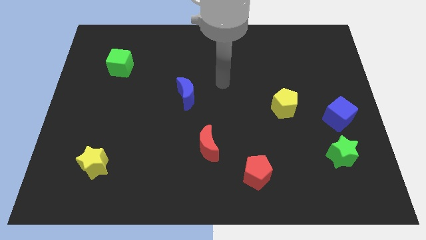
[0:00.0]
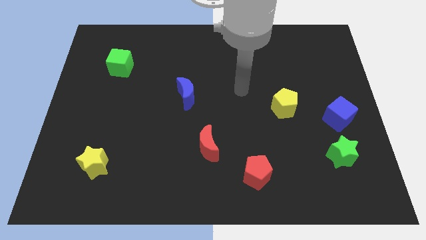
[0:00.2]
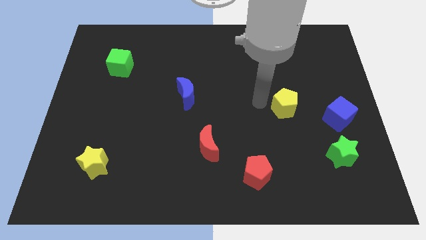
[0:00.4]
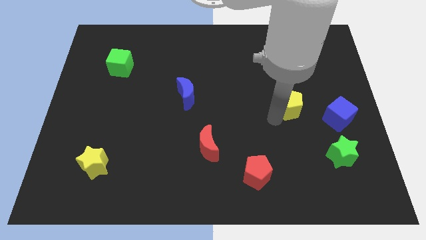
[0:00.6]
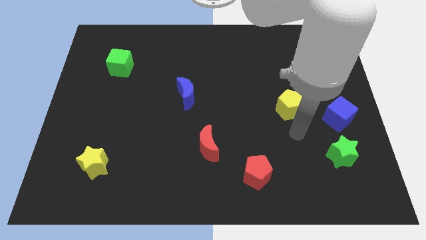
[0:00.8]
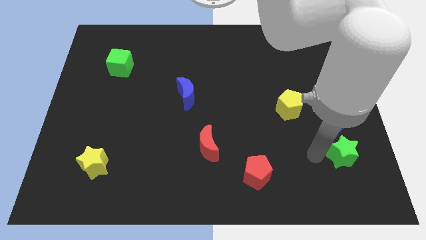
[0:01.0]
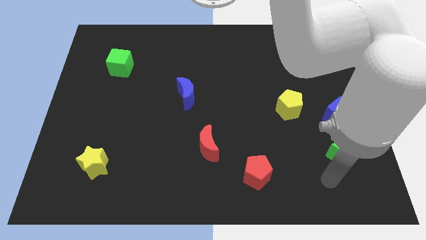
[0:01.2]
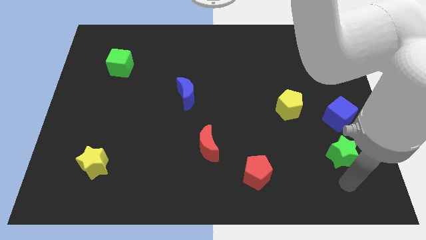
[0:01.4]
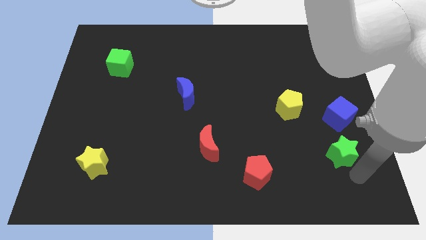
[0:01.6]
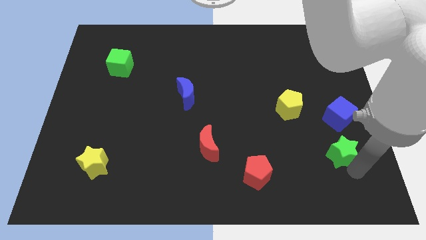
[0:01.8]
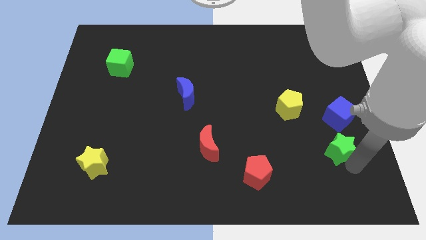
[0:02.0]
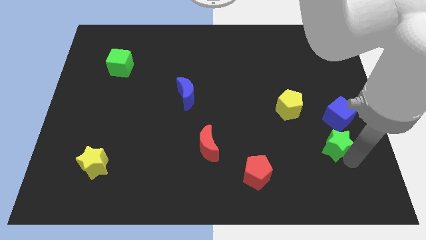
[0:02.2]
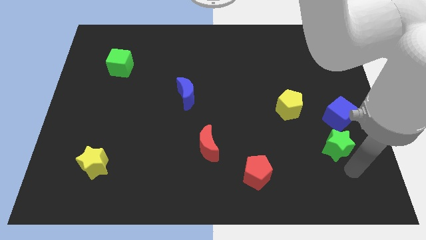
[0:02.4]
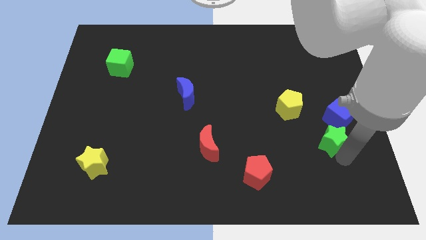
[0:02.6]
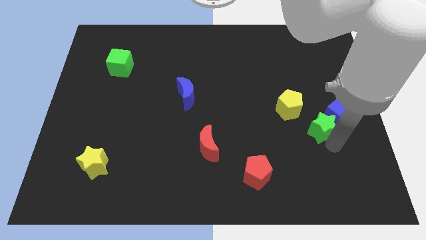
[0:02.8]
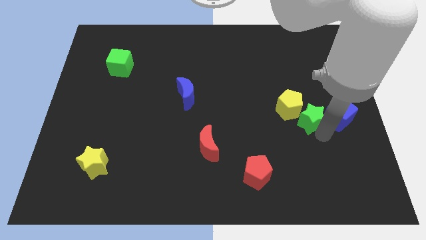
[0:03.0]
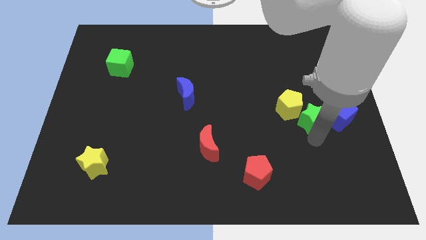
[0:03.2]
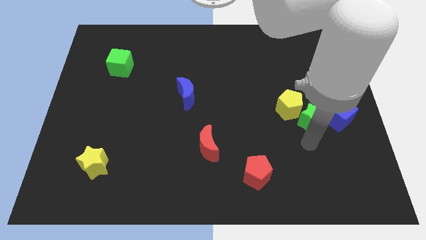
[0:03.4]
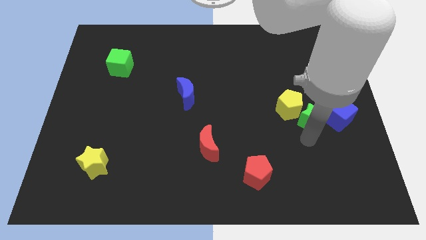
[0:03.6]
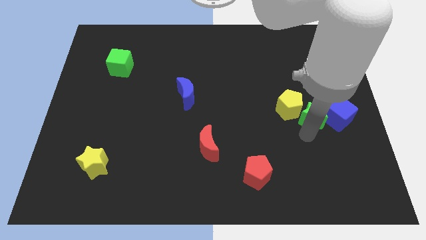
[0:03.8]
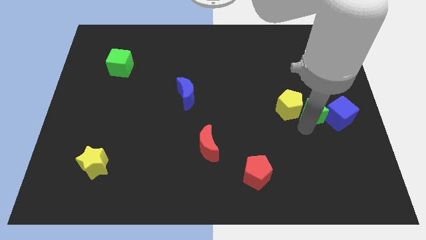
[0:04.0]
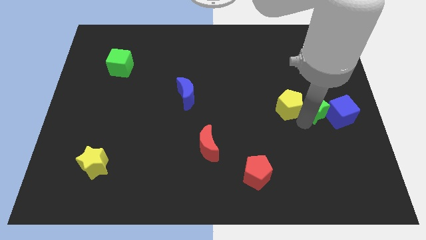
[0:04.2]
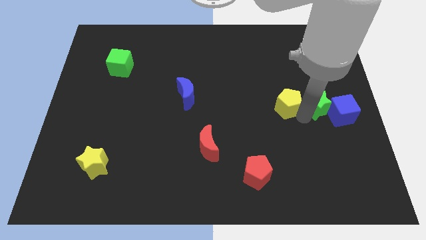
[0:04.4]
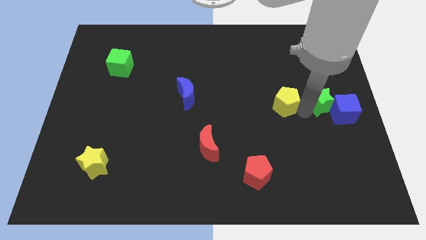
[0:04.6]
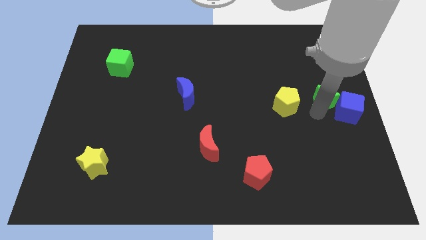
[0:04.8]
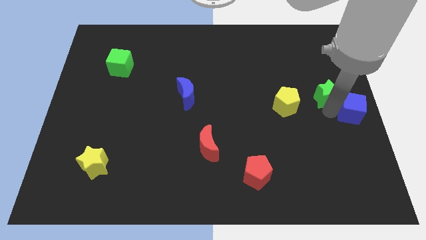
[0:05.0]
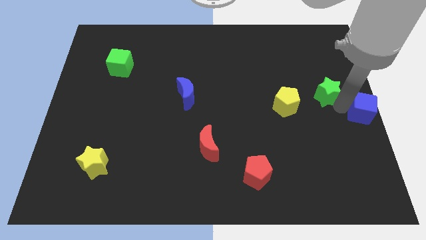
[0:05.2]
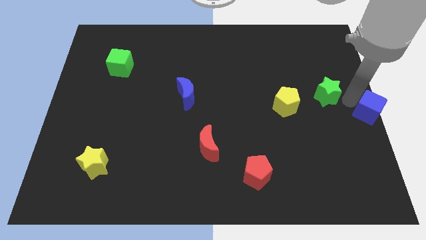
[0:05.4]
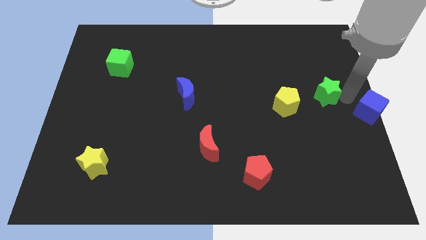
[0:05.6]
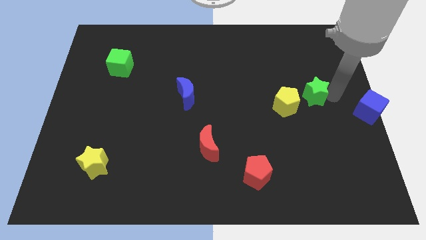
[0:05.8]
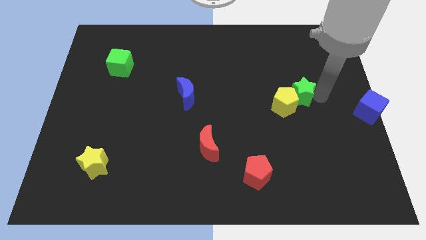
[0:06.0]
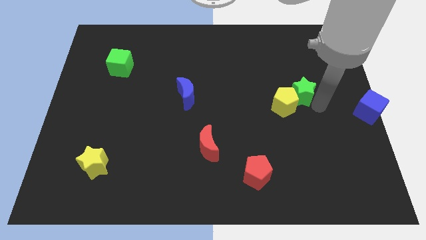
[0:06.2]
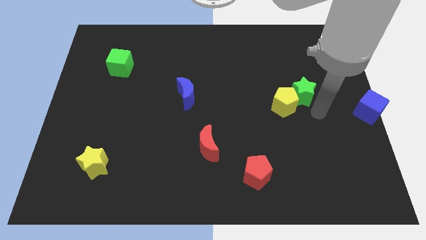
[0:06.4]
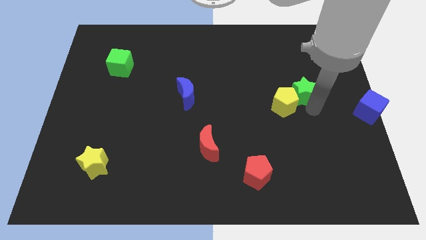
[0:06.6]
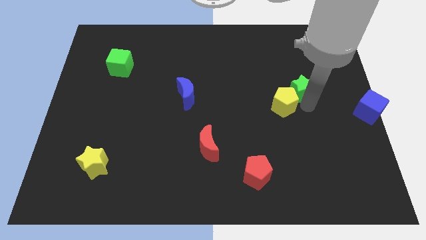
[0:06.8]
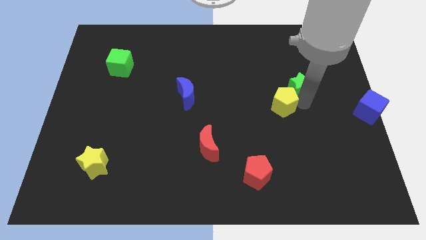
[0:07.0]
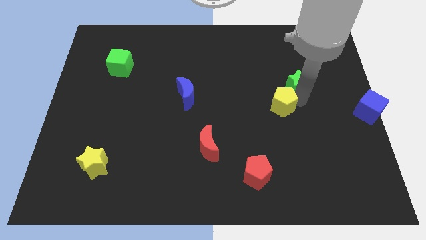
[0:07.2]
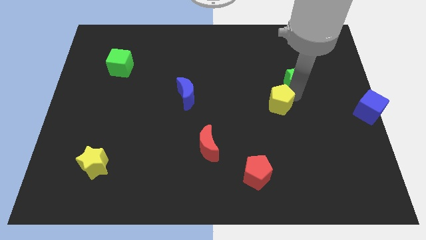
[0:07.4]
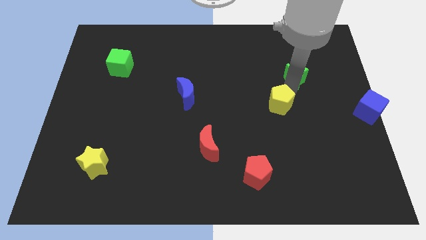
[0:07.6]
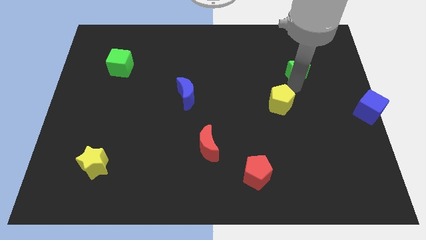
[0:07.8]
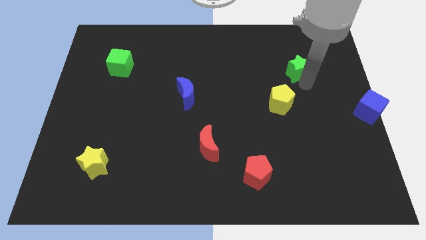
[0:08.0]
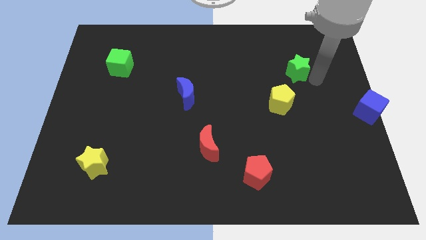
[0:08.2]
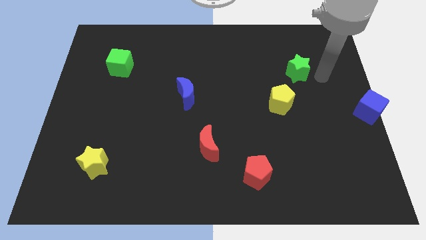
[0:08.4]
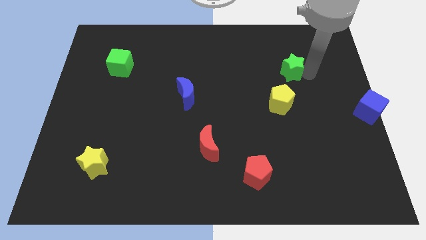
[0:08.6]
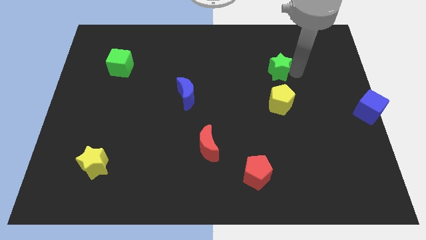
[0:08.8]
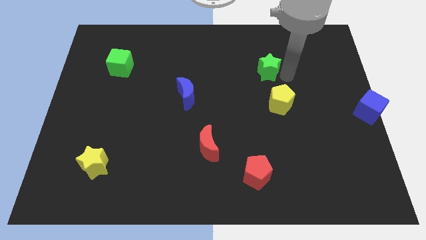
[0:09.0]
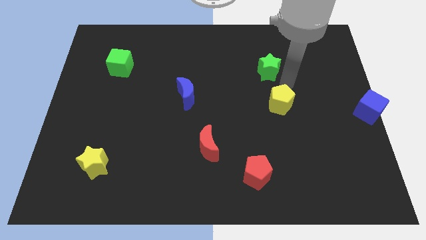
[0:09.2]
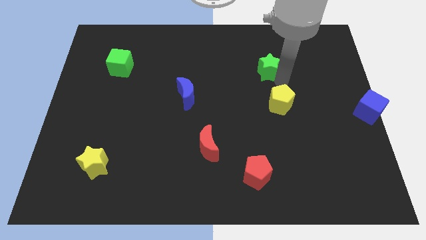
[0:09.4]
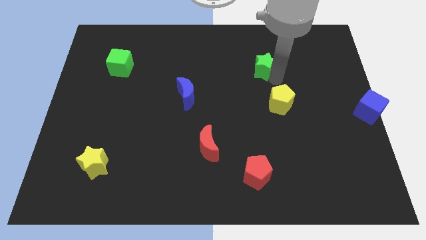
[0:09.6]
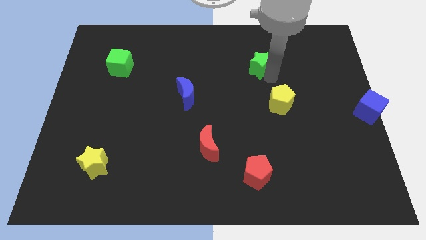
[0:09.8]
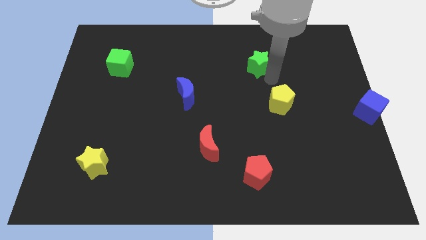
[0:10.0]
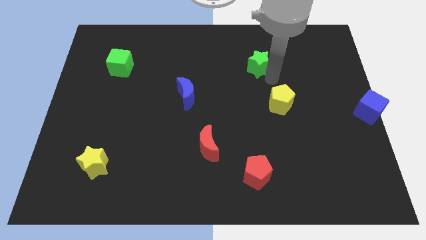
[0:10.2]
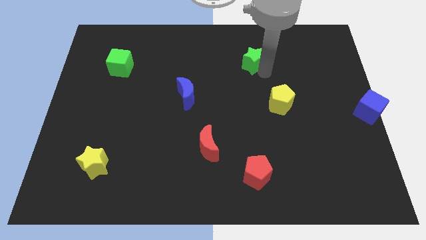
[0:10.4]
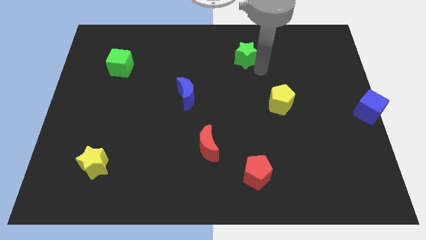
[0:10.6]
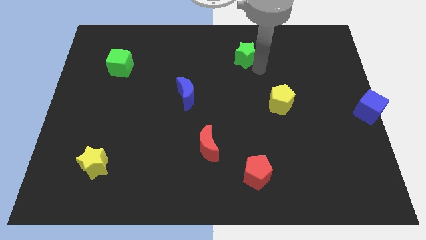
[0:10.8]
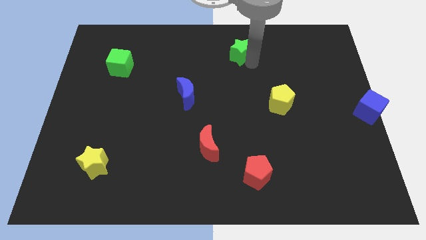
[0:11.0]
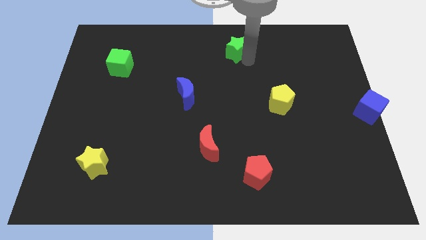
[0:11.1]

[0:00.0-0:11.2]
slide the green star to the top side

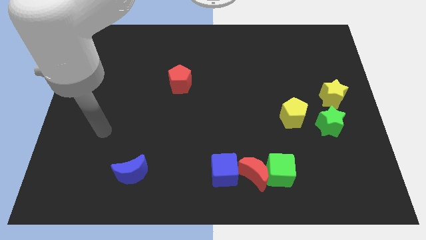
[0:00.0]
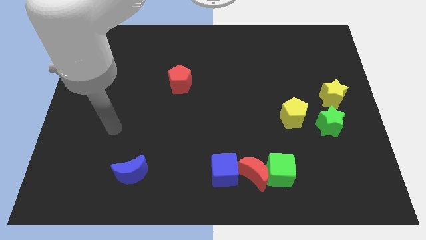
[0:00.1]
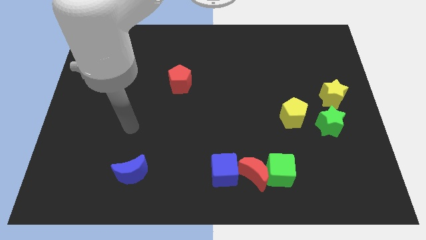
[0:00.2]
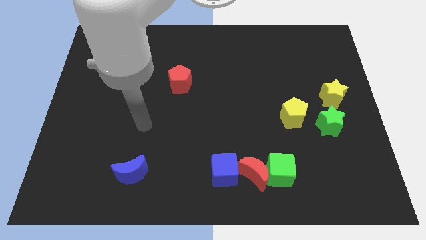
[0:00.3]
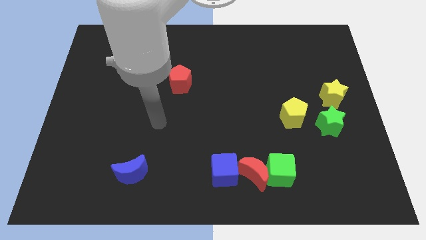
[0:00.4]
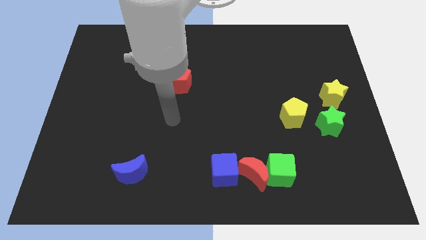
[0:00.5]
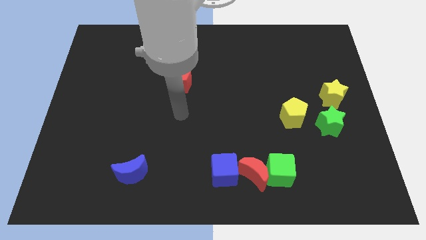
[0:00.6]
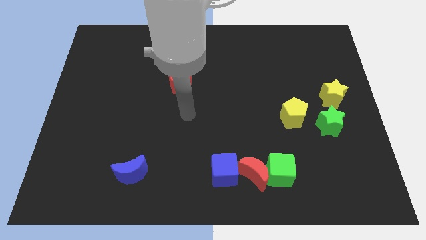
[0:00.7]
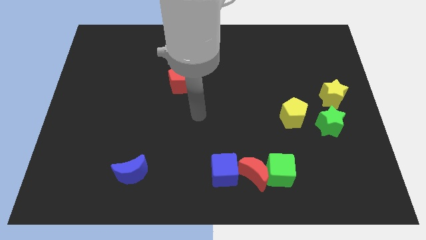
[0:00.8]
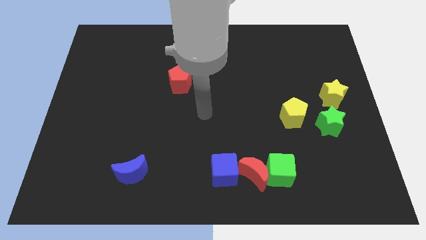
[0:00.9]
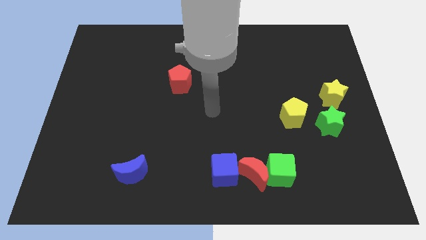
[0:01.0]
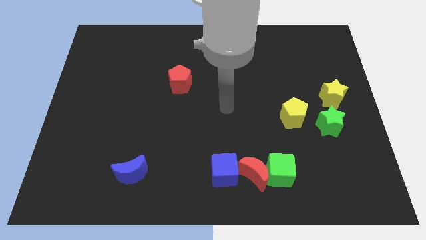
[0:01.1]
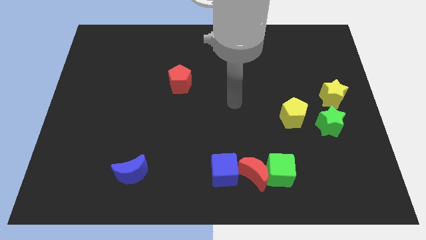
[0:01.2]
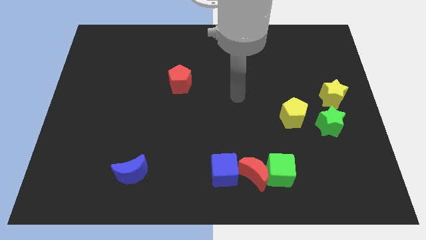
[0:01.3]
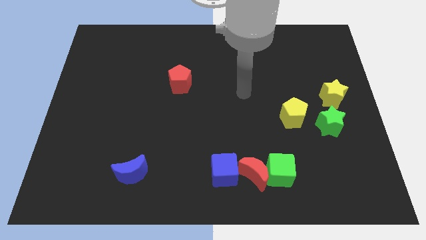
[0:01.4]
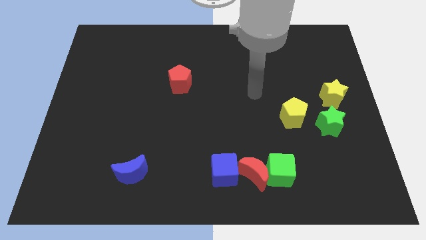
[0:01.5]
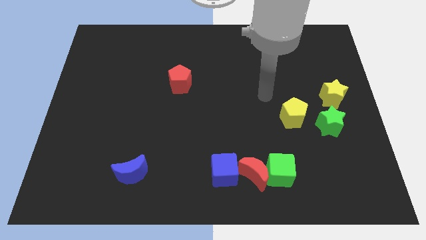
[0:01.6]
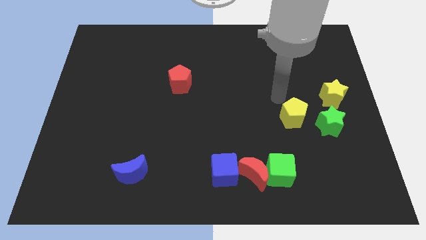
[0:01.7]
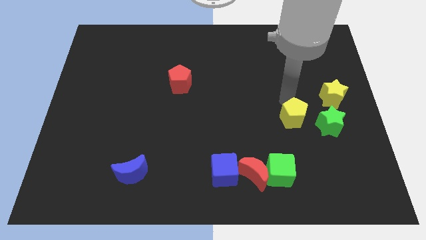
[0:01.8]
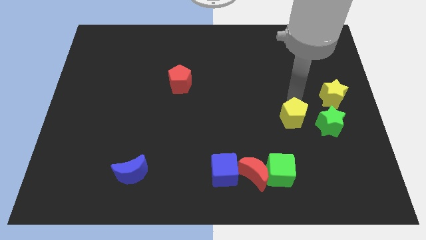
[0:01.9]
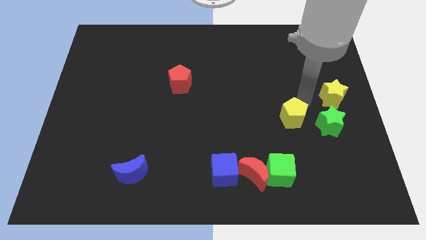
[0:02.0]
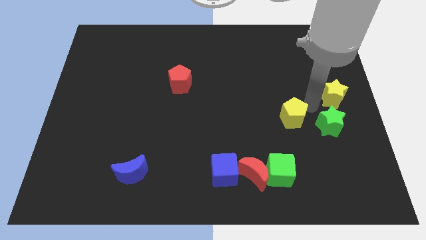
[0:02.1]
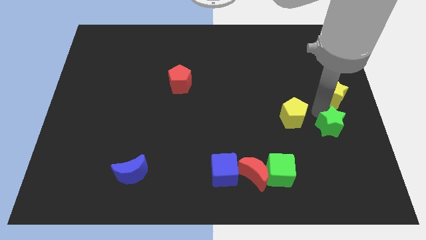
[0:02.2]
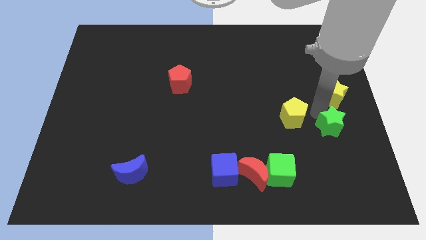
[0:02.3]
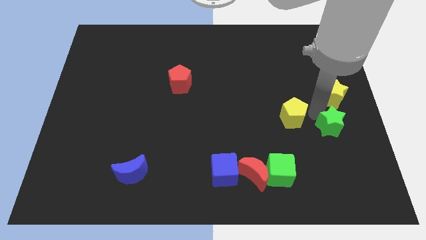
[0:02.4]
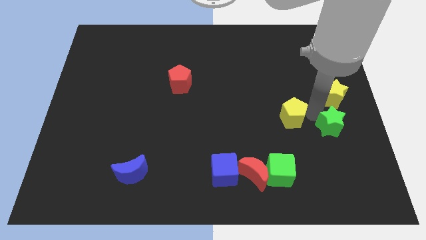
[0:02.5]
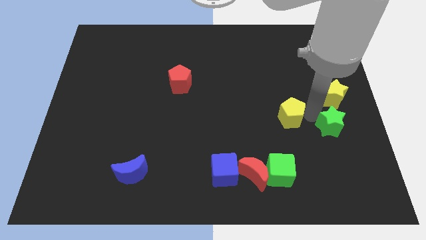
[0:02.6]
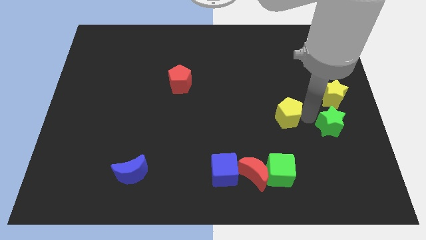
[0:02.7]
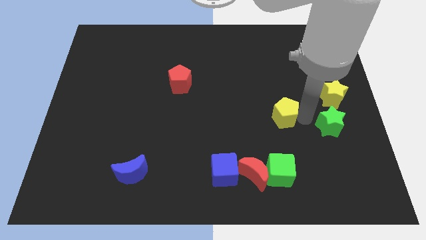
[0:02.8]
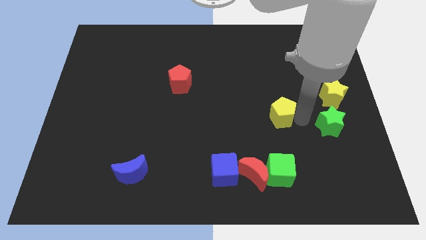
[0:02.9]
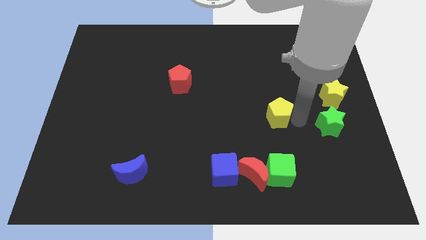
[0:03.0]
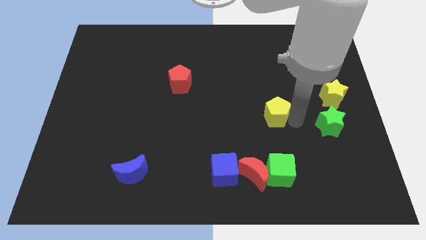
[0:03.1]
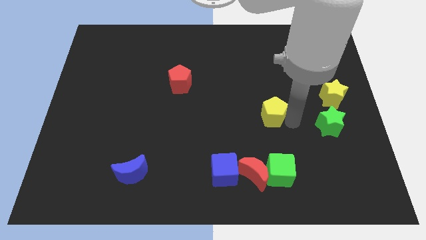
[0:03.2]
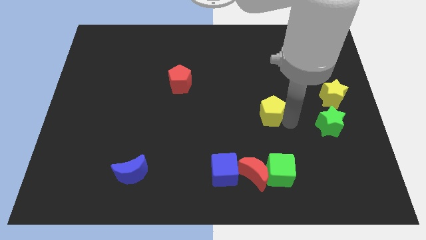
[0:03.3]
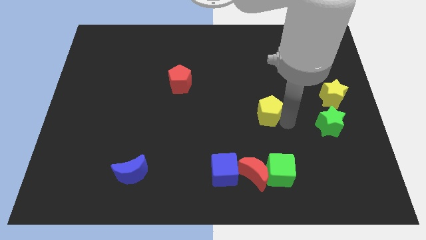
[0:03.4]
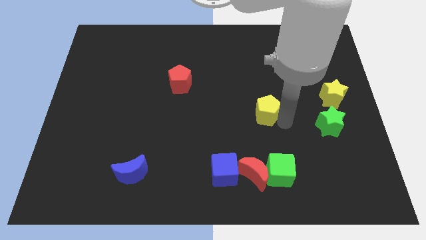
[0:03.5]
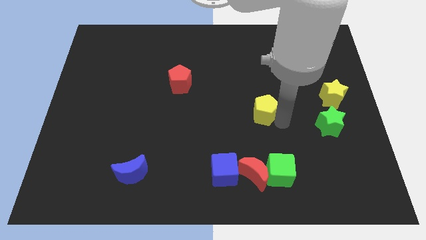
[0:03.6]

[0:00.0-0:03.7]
push the yellow pentagon to the middle
